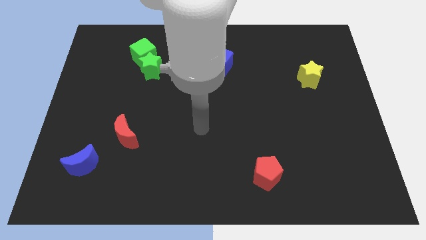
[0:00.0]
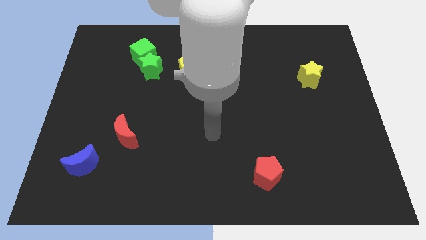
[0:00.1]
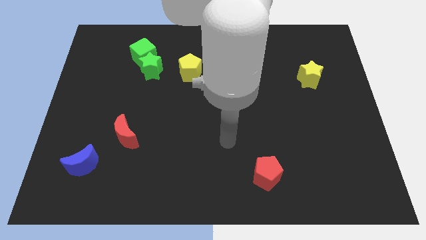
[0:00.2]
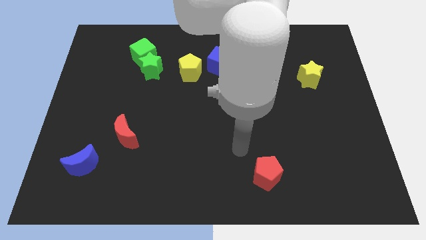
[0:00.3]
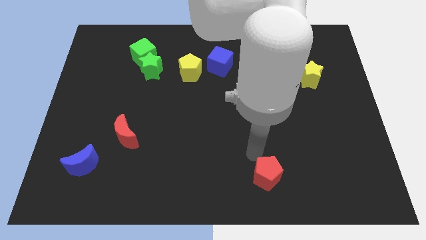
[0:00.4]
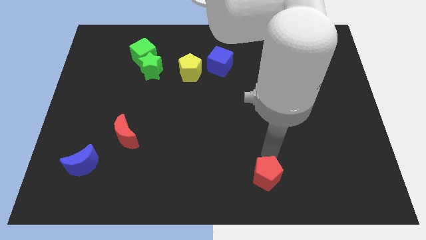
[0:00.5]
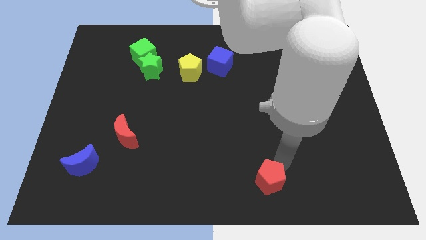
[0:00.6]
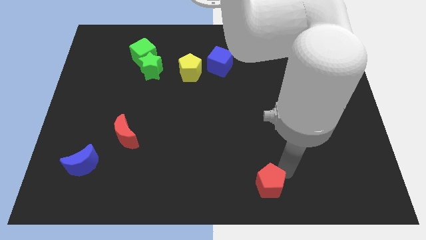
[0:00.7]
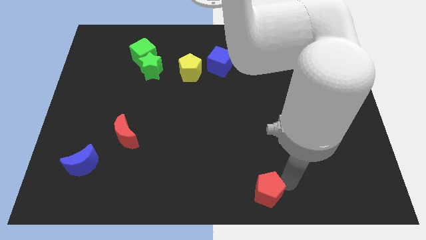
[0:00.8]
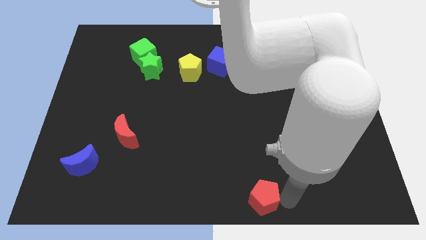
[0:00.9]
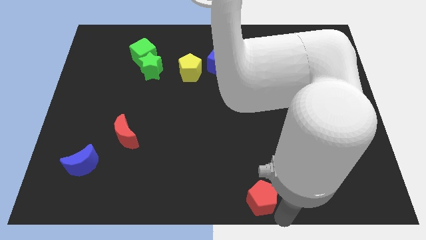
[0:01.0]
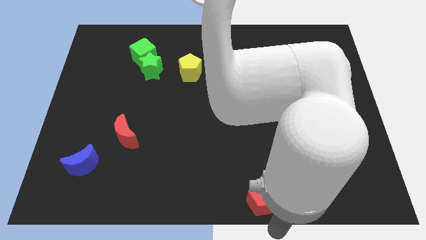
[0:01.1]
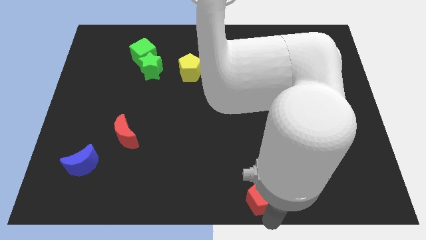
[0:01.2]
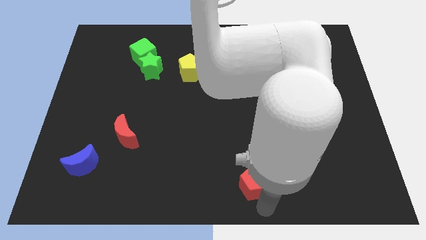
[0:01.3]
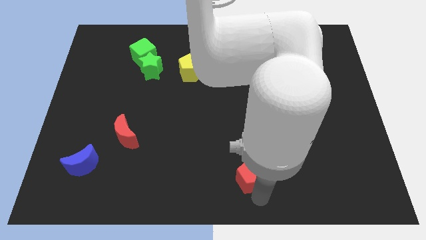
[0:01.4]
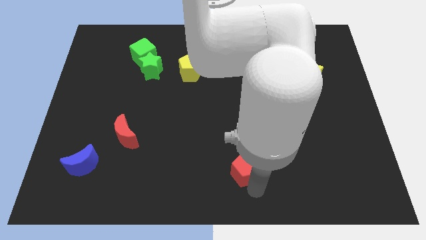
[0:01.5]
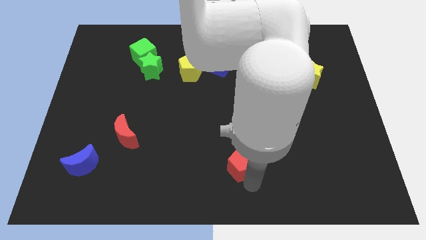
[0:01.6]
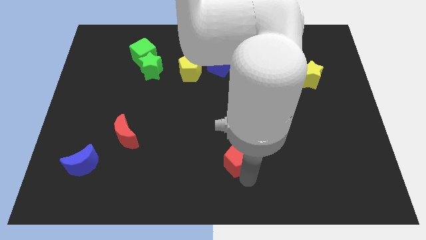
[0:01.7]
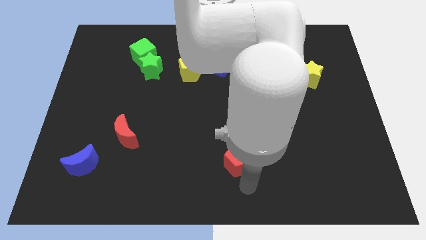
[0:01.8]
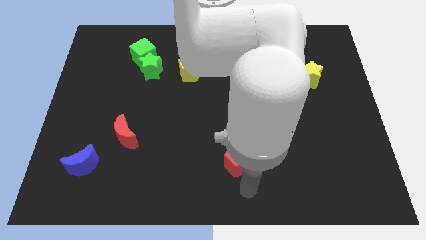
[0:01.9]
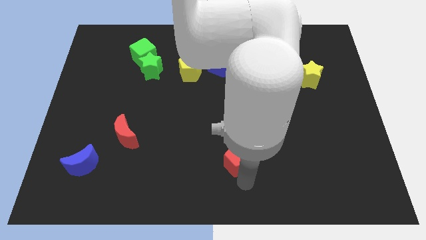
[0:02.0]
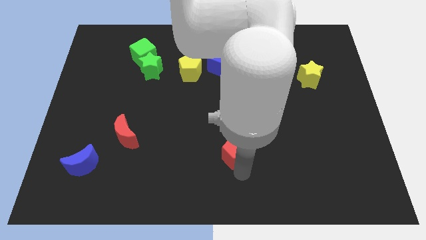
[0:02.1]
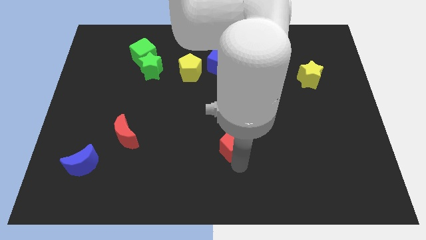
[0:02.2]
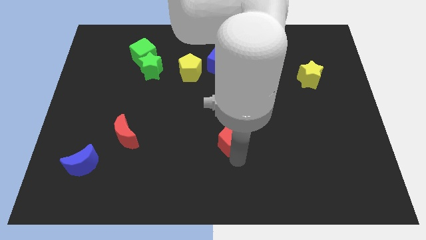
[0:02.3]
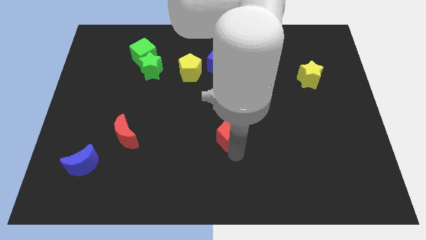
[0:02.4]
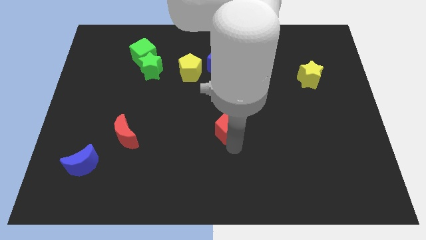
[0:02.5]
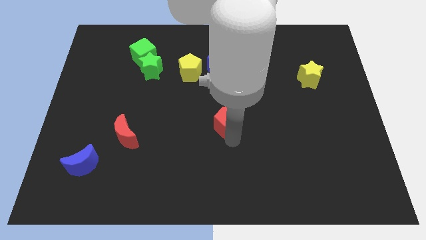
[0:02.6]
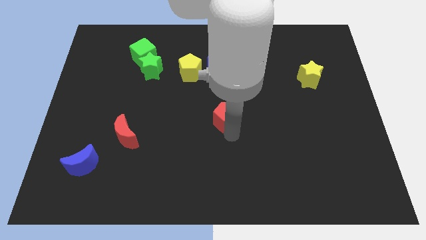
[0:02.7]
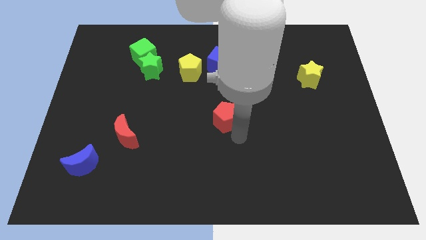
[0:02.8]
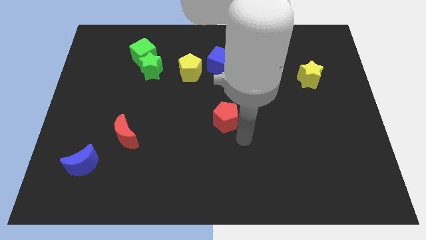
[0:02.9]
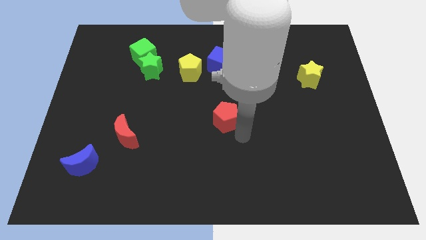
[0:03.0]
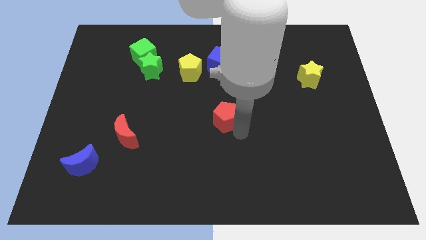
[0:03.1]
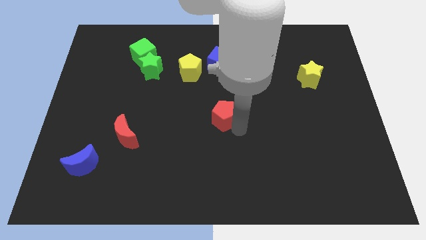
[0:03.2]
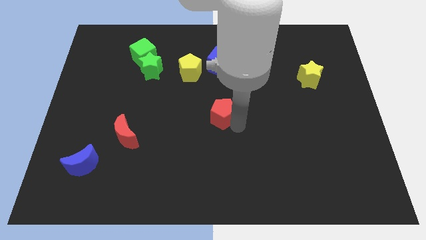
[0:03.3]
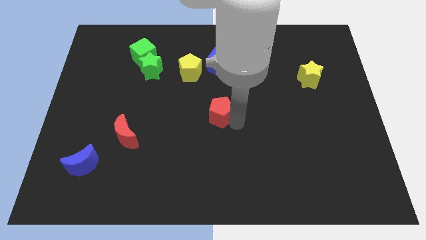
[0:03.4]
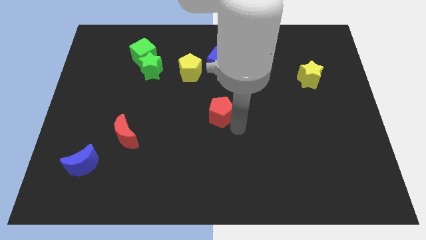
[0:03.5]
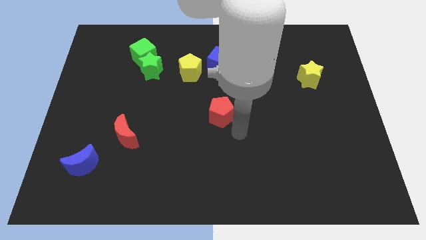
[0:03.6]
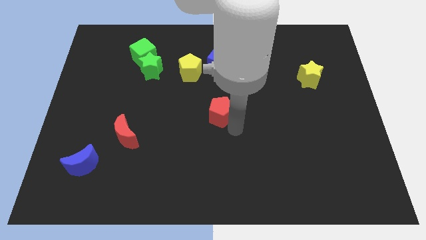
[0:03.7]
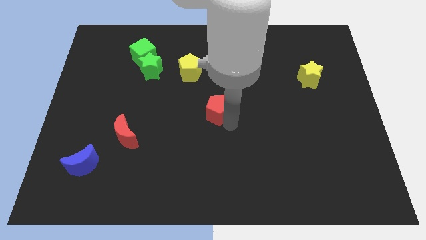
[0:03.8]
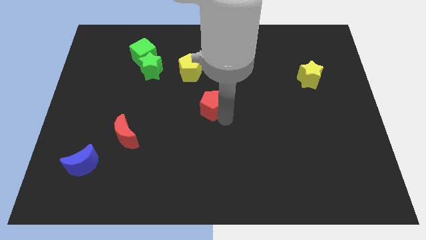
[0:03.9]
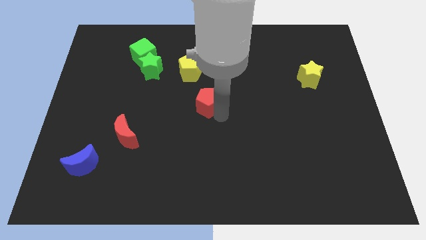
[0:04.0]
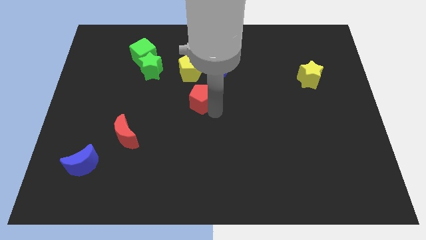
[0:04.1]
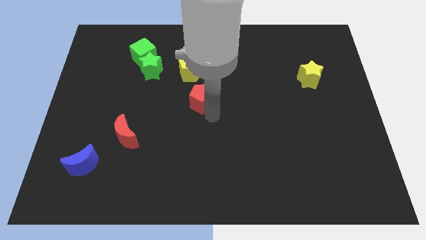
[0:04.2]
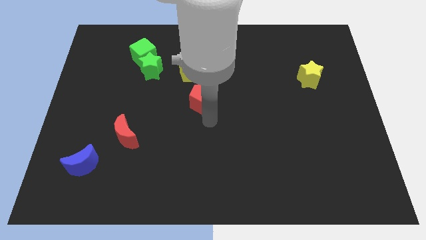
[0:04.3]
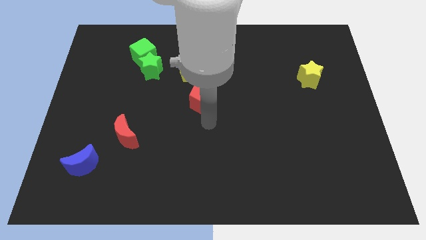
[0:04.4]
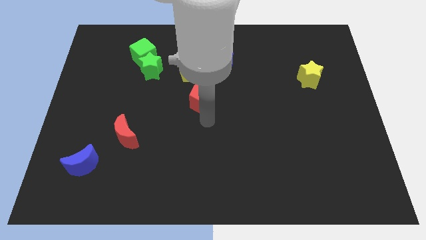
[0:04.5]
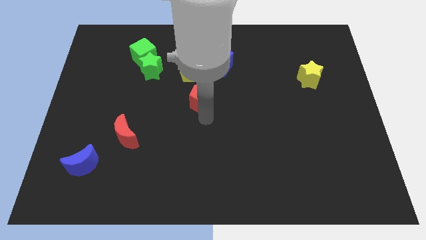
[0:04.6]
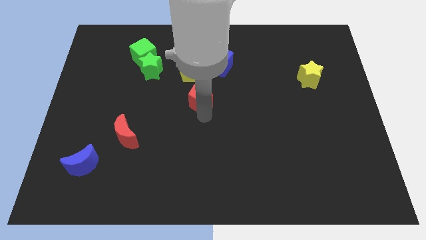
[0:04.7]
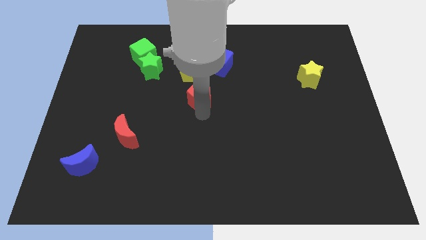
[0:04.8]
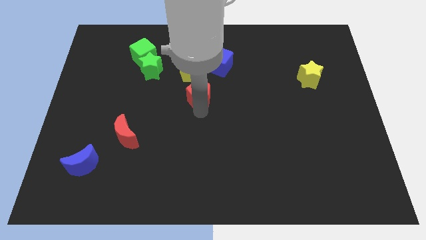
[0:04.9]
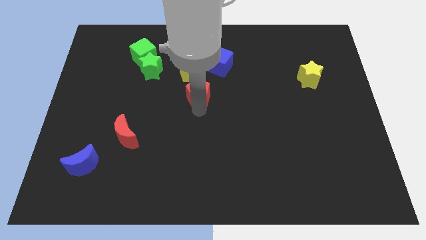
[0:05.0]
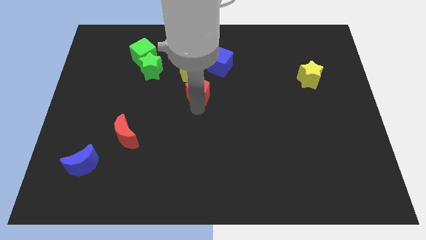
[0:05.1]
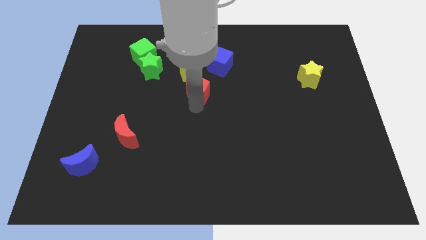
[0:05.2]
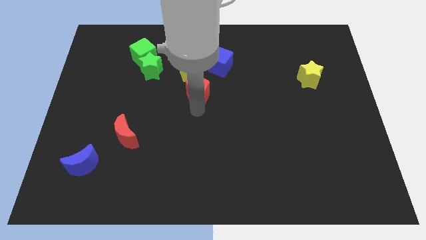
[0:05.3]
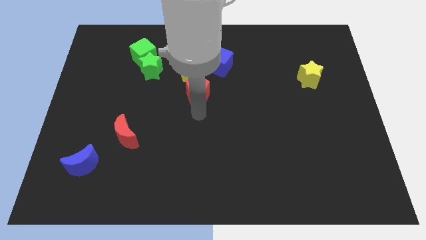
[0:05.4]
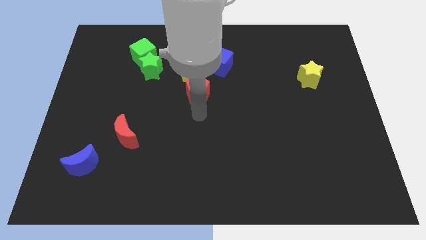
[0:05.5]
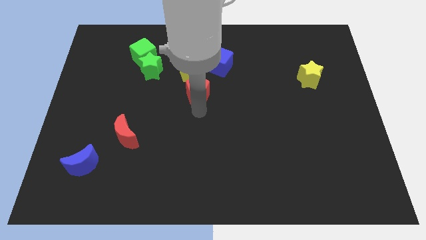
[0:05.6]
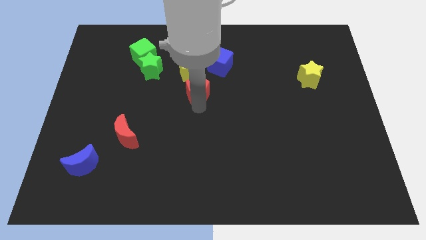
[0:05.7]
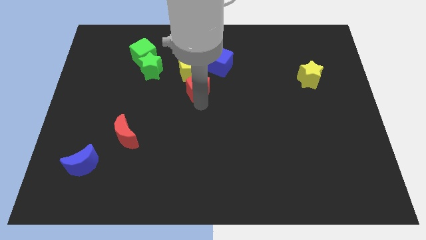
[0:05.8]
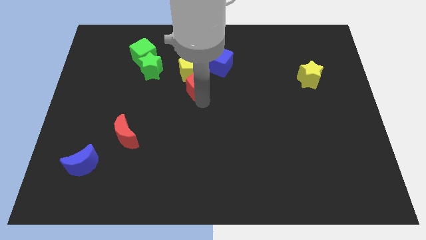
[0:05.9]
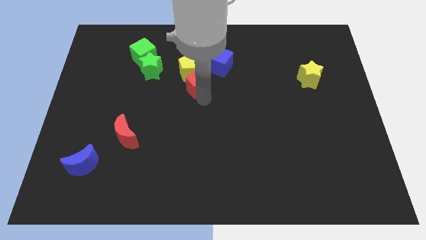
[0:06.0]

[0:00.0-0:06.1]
put the red pentagon towards the yellow pentagon
